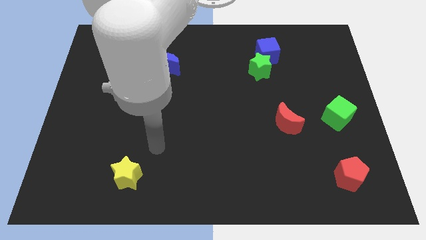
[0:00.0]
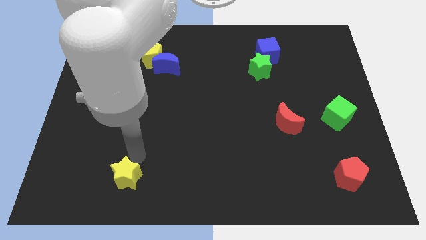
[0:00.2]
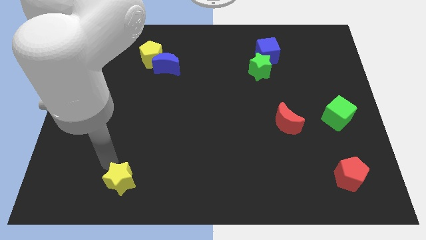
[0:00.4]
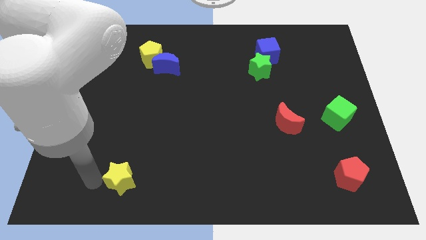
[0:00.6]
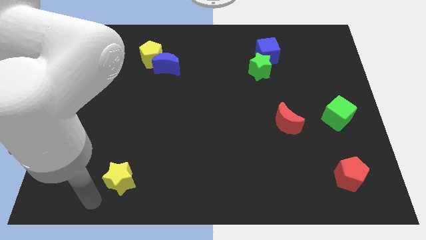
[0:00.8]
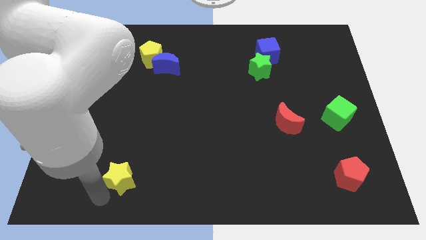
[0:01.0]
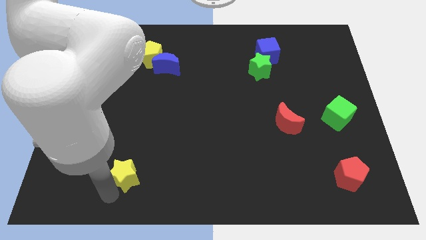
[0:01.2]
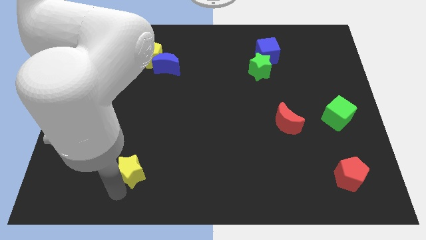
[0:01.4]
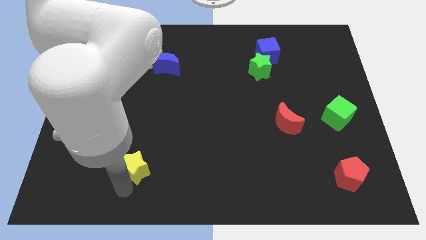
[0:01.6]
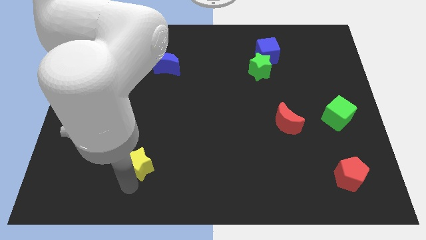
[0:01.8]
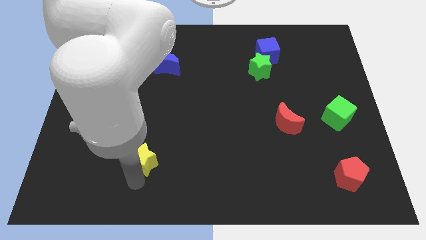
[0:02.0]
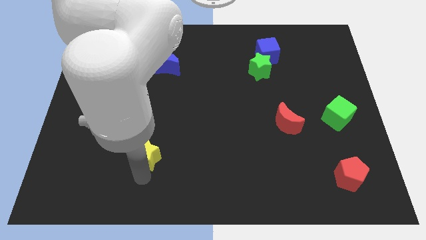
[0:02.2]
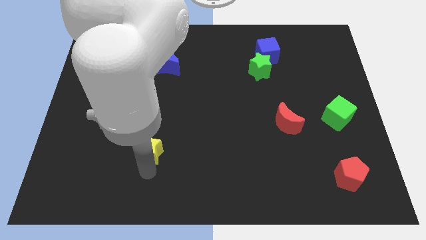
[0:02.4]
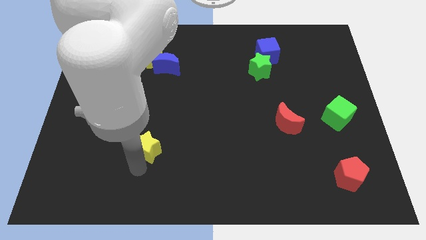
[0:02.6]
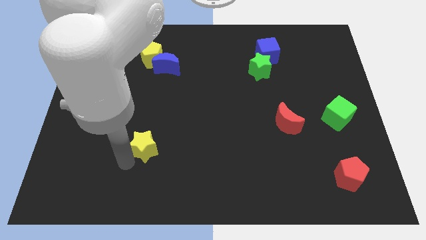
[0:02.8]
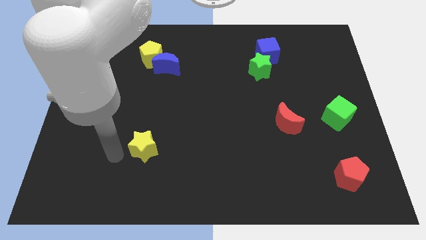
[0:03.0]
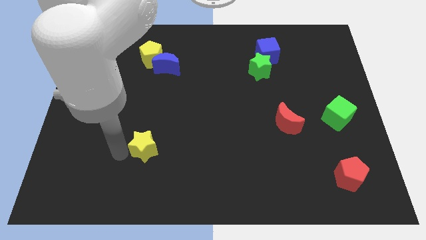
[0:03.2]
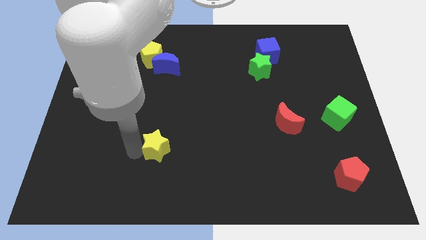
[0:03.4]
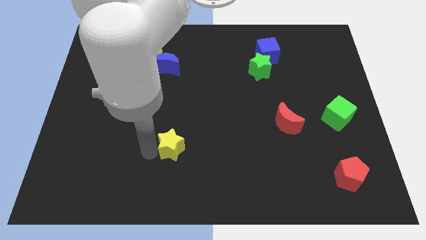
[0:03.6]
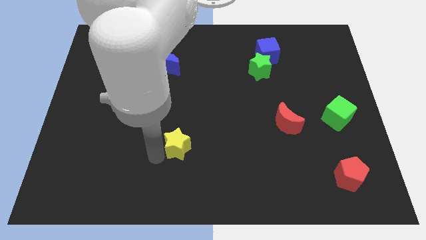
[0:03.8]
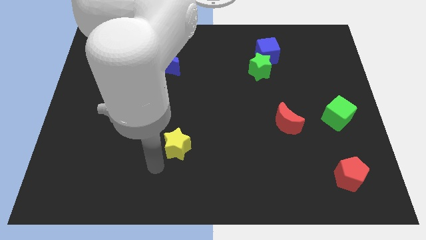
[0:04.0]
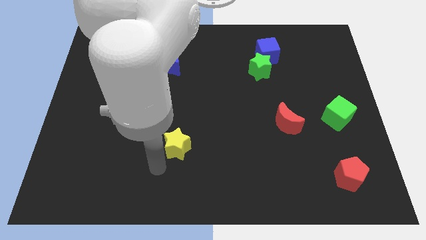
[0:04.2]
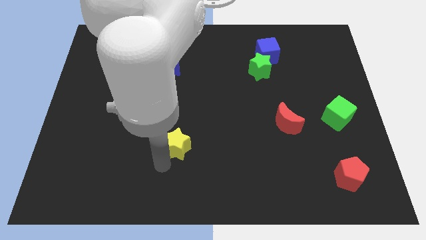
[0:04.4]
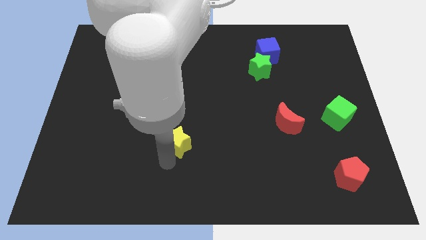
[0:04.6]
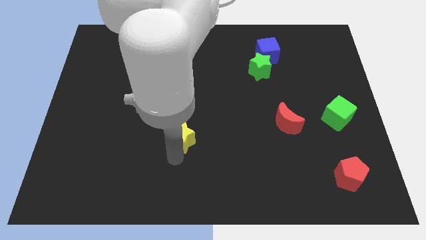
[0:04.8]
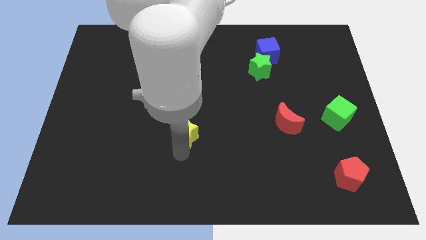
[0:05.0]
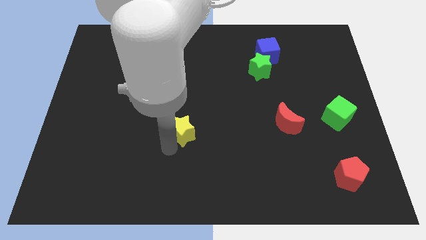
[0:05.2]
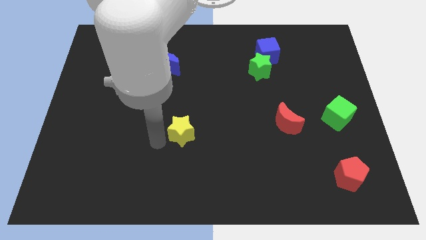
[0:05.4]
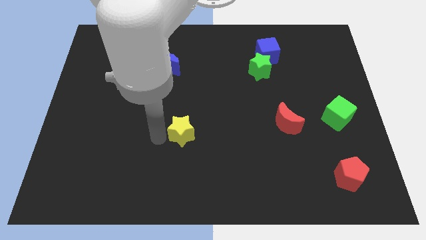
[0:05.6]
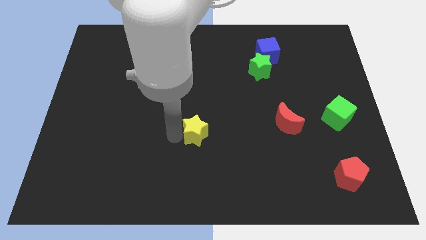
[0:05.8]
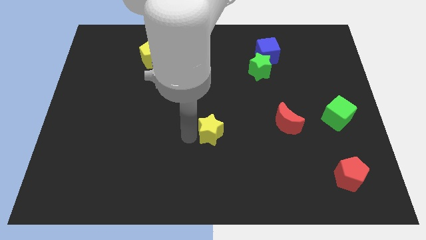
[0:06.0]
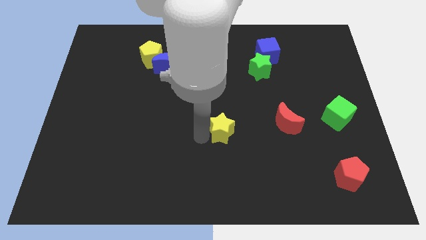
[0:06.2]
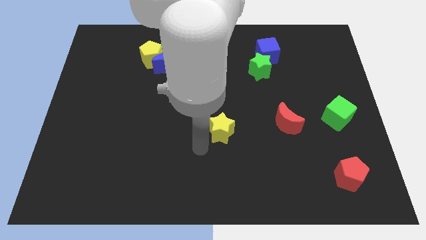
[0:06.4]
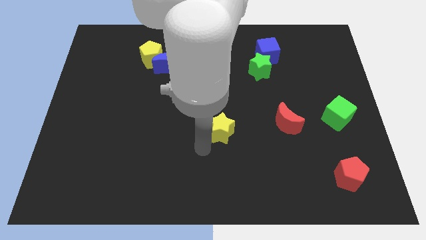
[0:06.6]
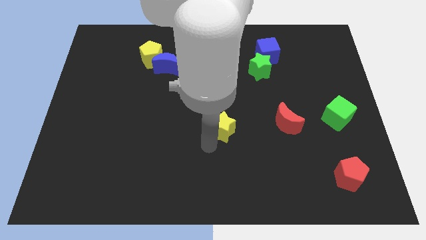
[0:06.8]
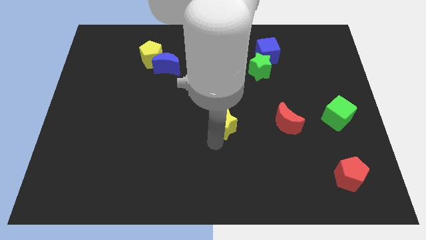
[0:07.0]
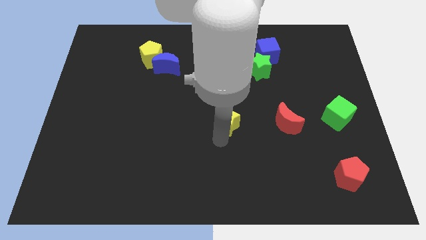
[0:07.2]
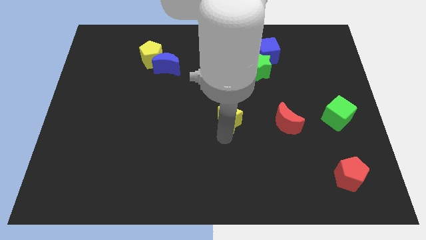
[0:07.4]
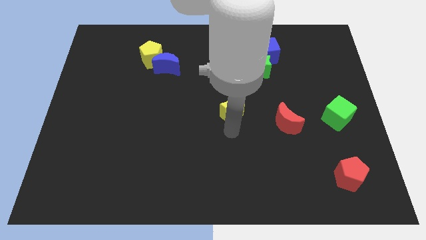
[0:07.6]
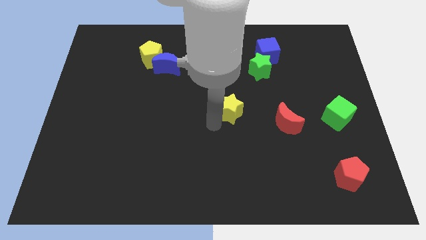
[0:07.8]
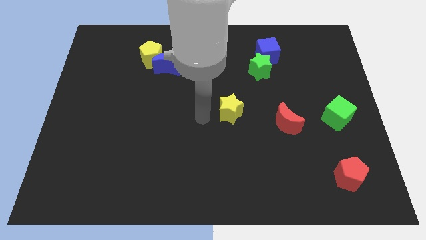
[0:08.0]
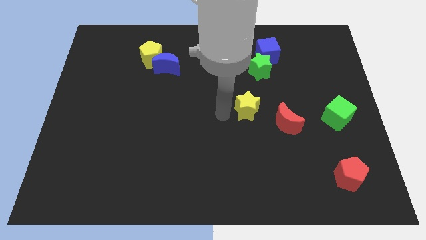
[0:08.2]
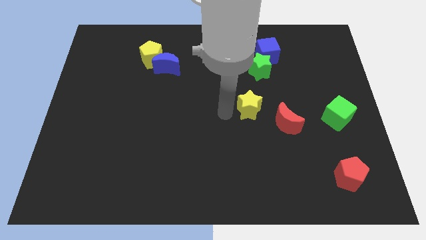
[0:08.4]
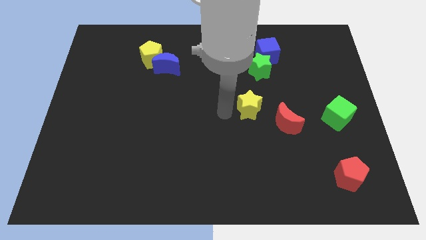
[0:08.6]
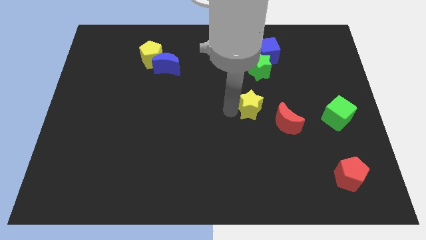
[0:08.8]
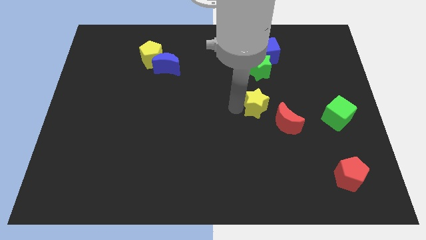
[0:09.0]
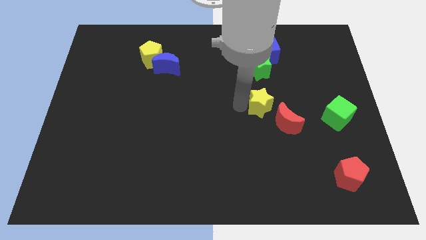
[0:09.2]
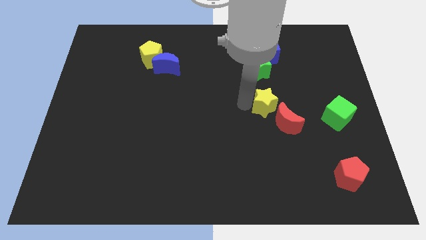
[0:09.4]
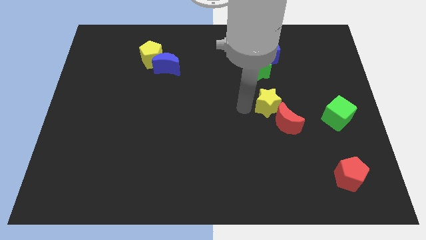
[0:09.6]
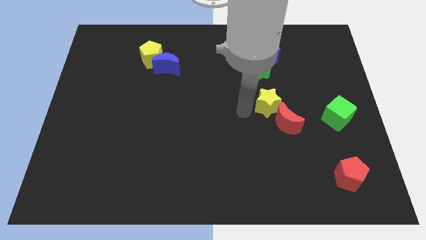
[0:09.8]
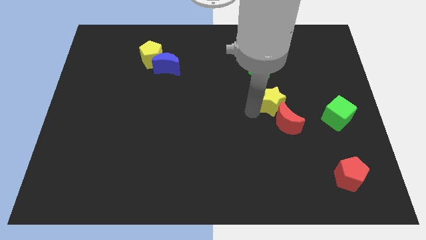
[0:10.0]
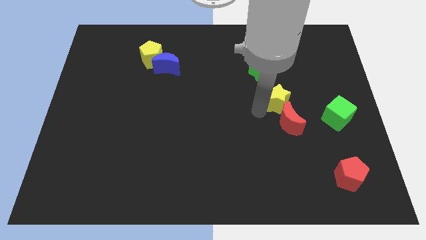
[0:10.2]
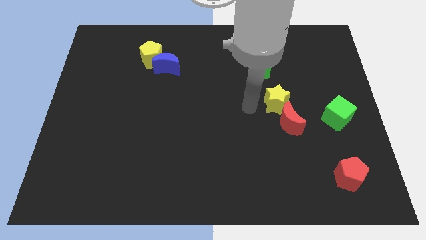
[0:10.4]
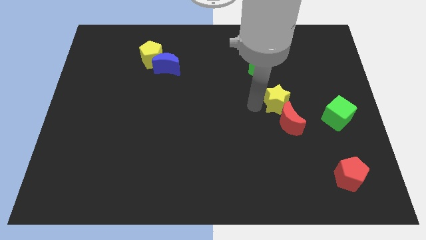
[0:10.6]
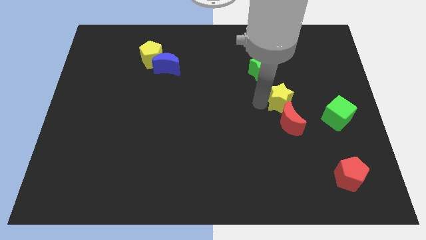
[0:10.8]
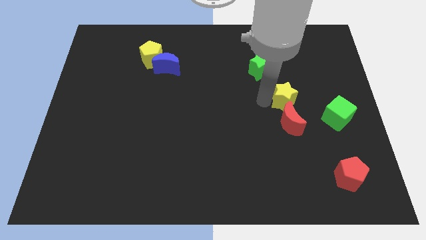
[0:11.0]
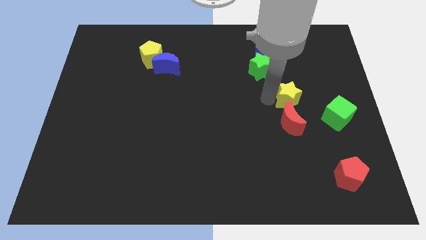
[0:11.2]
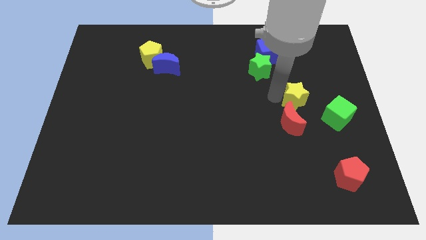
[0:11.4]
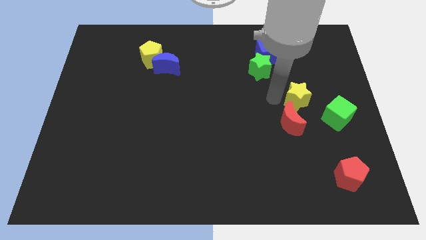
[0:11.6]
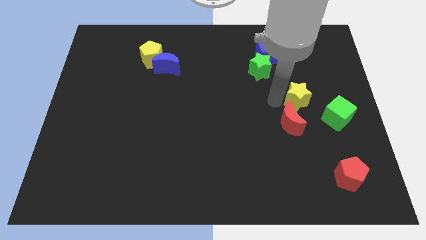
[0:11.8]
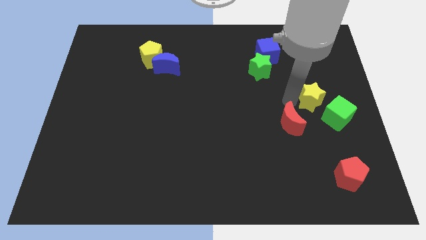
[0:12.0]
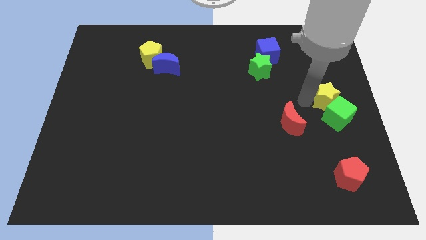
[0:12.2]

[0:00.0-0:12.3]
move the yellow star to the center right

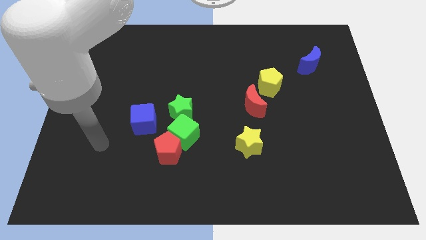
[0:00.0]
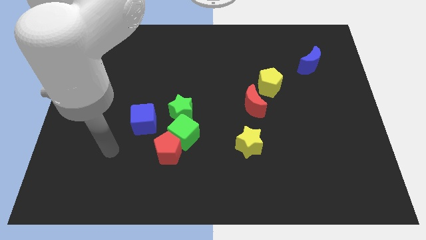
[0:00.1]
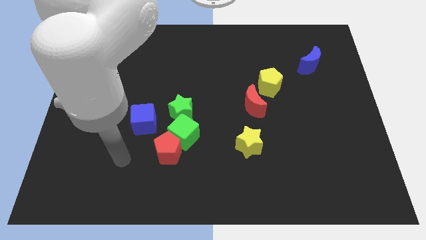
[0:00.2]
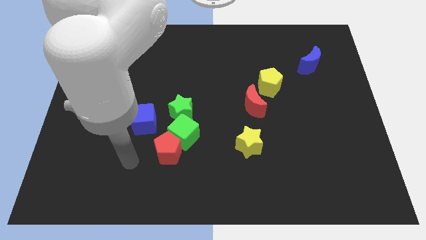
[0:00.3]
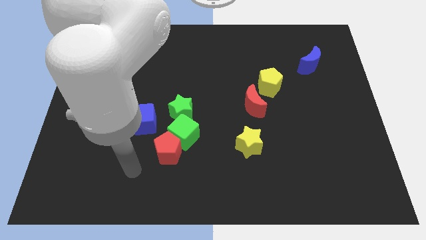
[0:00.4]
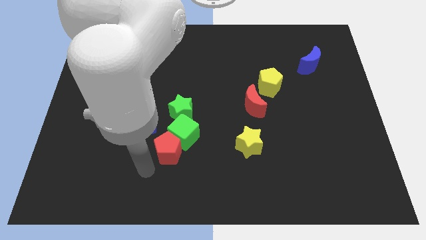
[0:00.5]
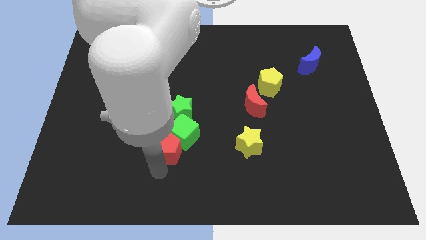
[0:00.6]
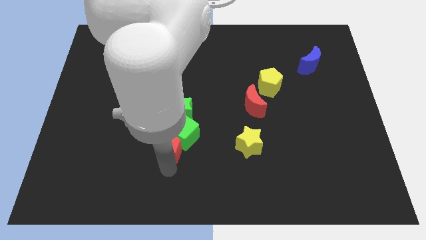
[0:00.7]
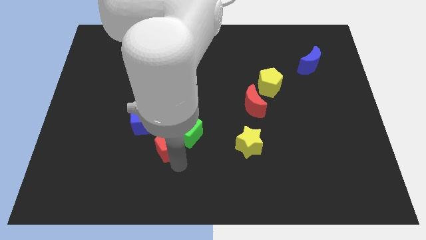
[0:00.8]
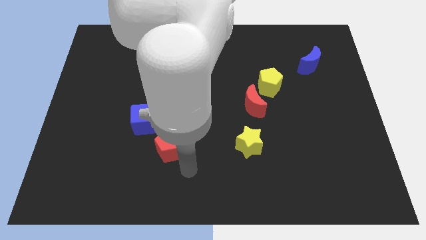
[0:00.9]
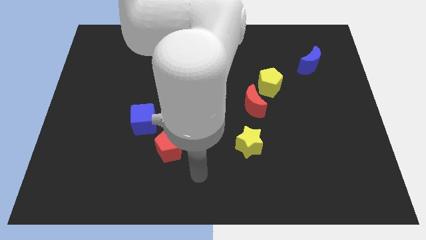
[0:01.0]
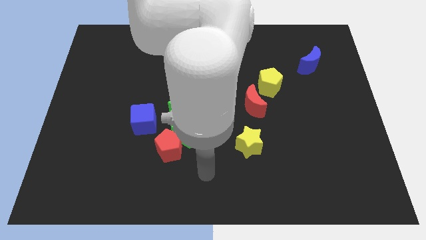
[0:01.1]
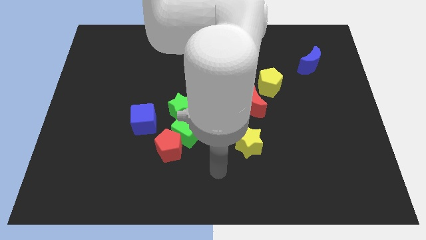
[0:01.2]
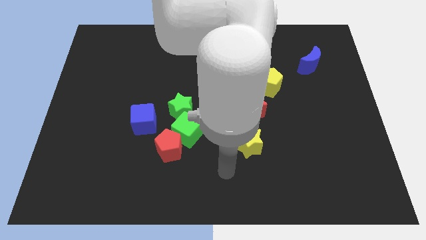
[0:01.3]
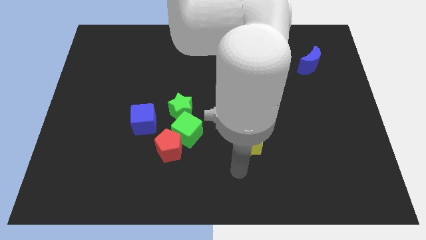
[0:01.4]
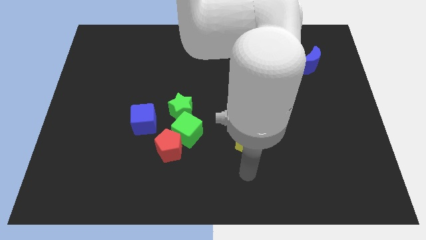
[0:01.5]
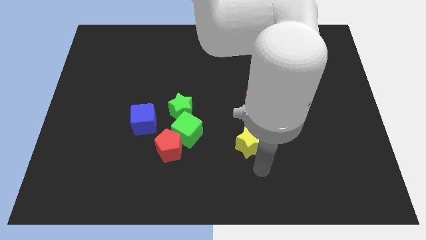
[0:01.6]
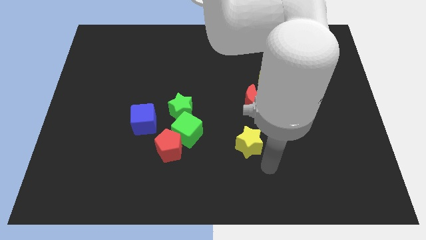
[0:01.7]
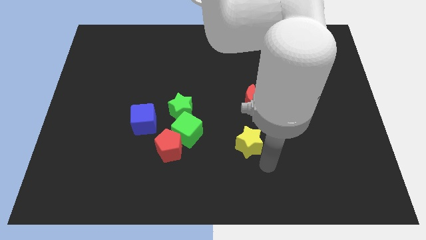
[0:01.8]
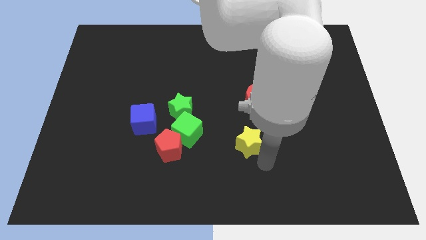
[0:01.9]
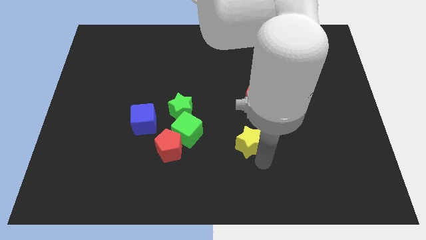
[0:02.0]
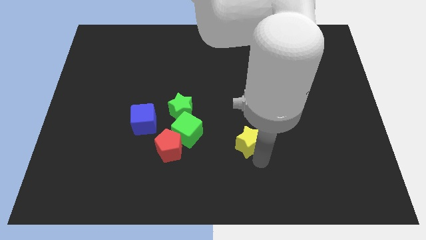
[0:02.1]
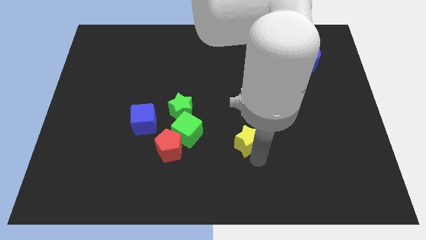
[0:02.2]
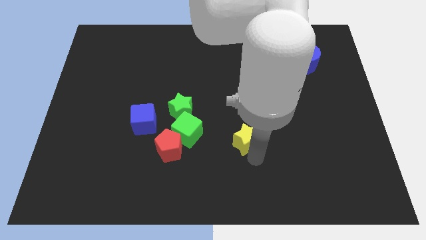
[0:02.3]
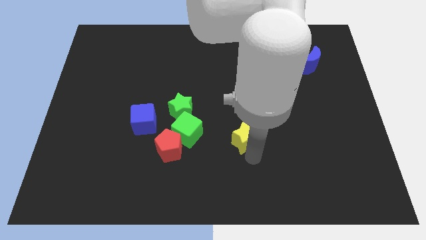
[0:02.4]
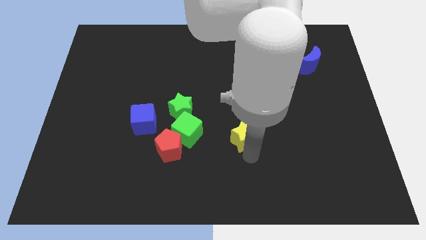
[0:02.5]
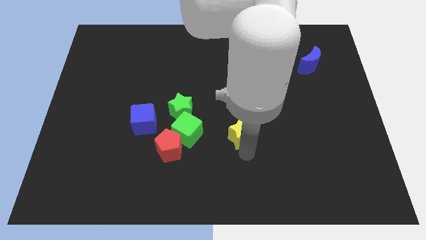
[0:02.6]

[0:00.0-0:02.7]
slide the yellow star to the center of the board
